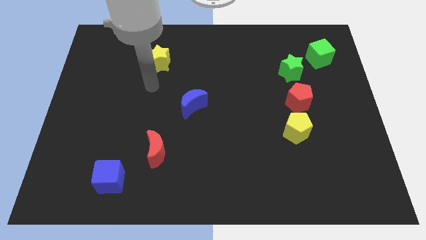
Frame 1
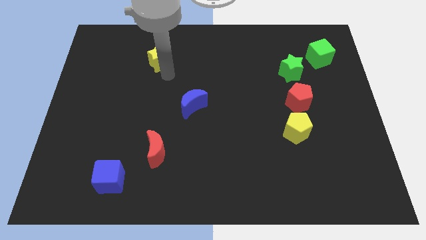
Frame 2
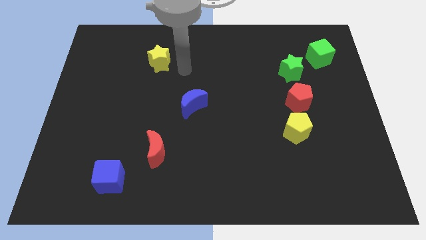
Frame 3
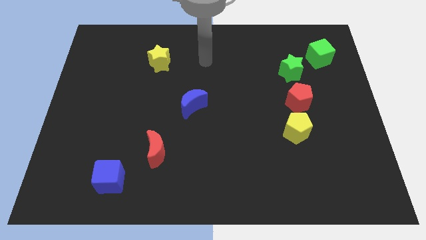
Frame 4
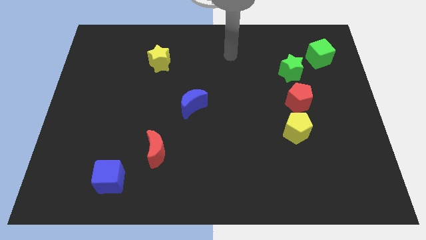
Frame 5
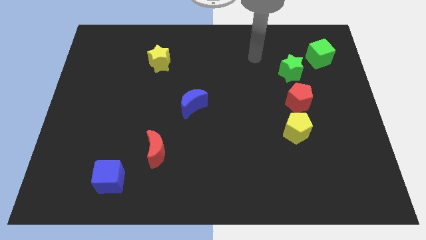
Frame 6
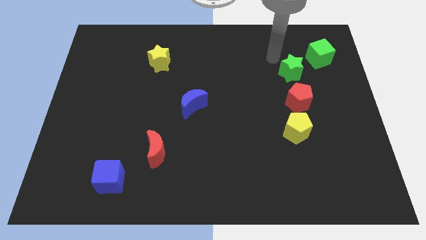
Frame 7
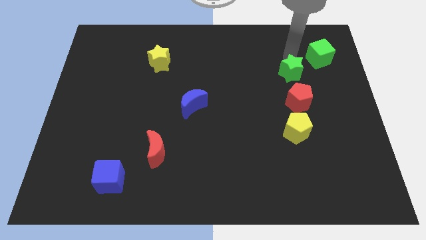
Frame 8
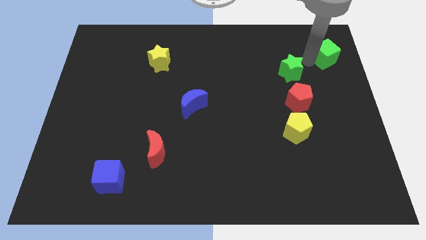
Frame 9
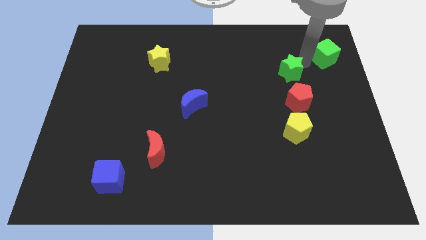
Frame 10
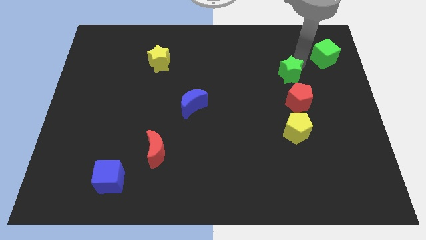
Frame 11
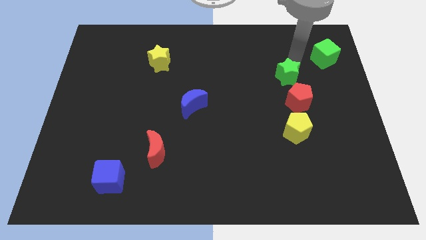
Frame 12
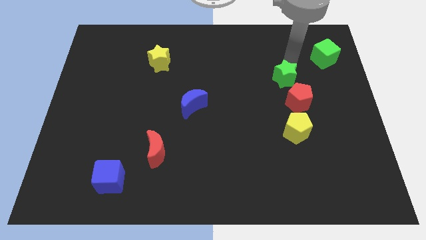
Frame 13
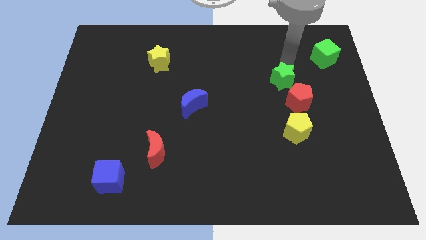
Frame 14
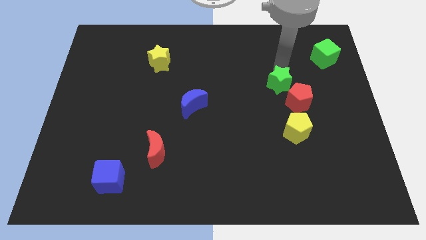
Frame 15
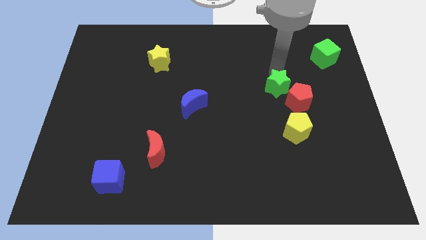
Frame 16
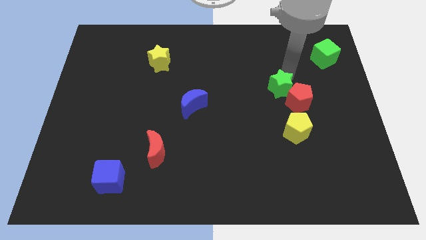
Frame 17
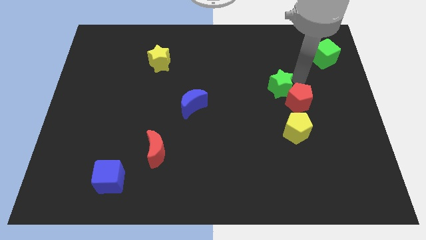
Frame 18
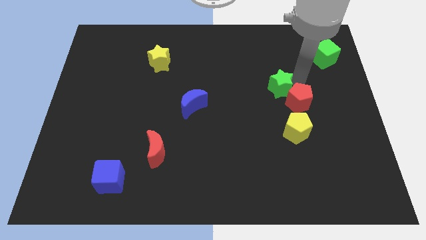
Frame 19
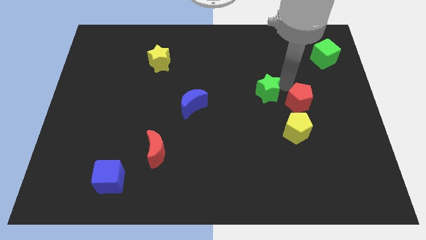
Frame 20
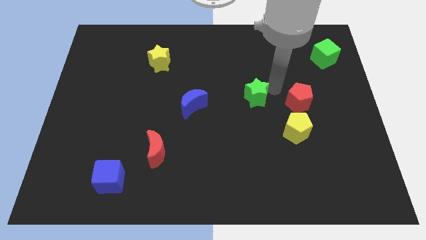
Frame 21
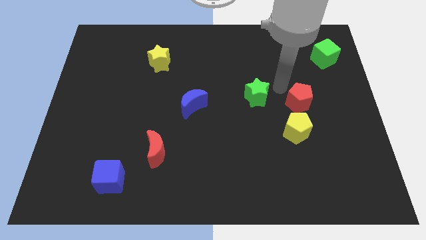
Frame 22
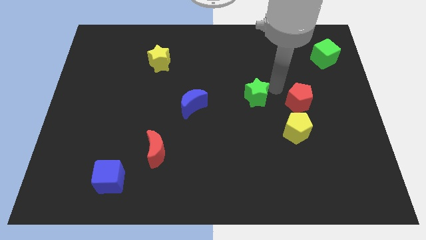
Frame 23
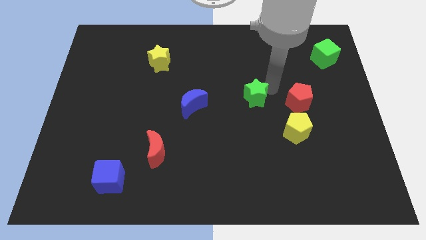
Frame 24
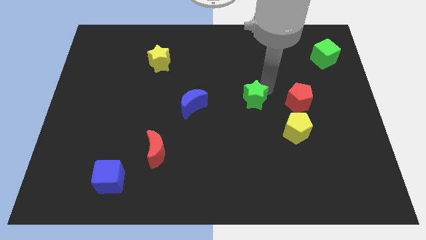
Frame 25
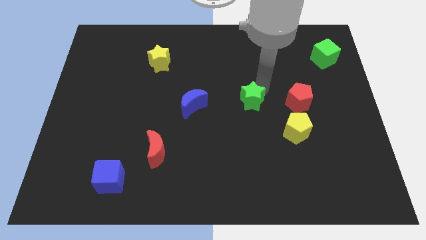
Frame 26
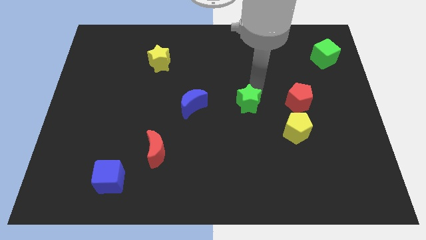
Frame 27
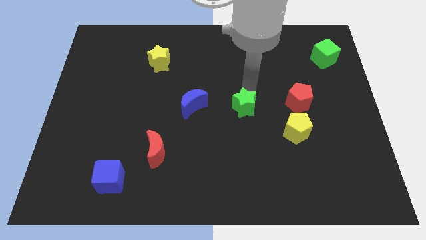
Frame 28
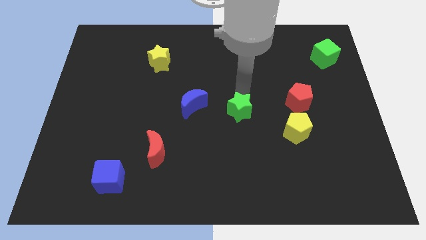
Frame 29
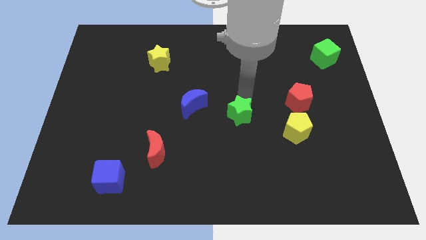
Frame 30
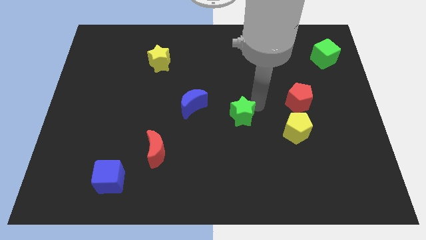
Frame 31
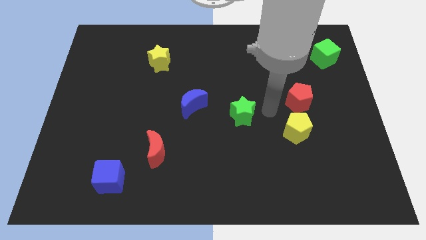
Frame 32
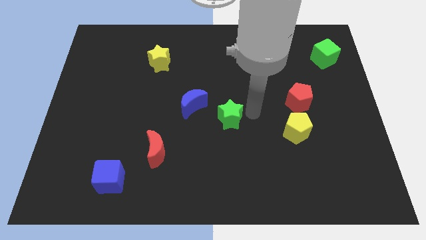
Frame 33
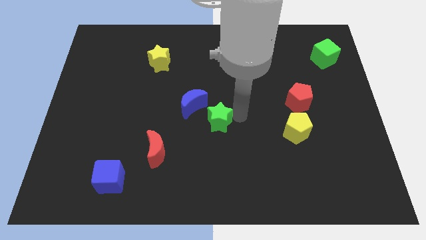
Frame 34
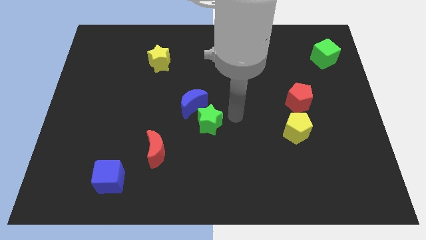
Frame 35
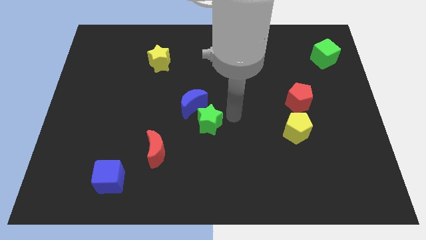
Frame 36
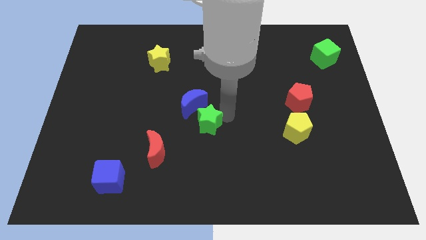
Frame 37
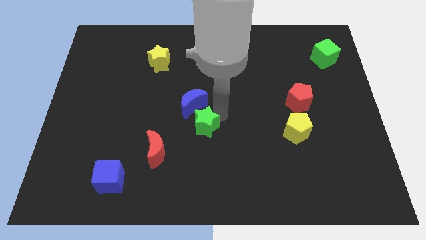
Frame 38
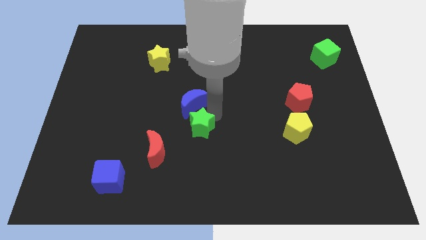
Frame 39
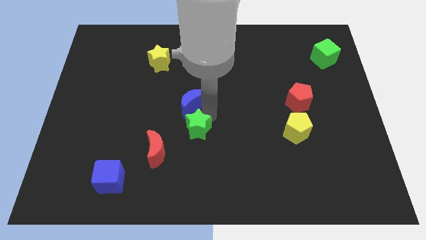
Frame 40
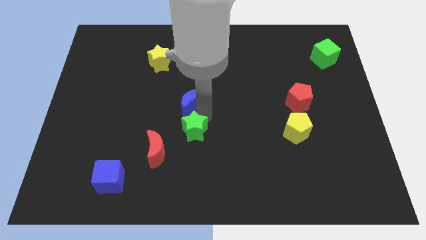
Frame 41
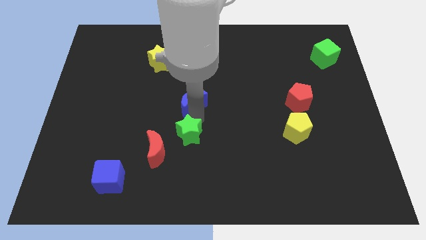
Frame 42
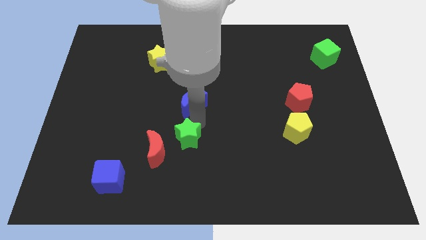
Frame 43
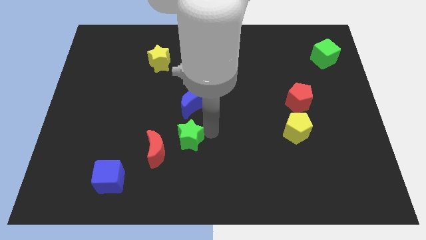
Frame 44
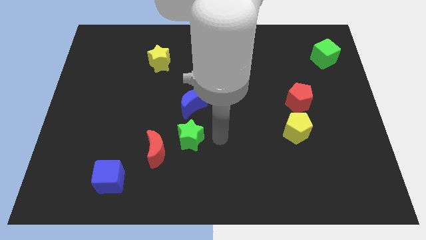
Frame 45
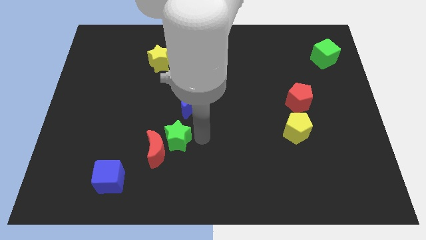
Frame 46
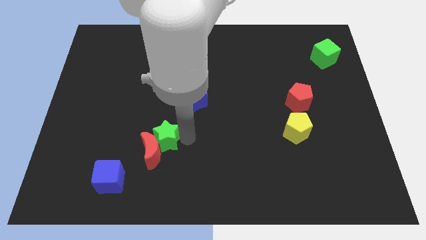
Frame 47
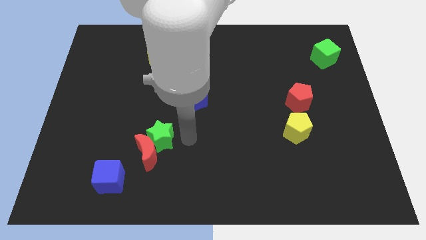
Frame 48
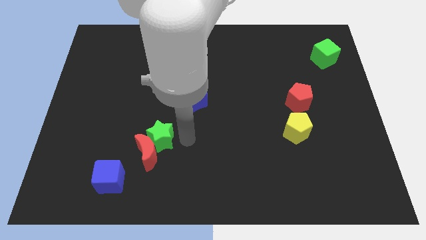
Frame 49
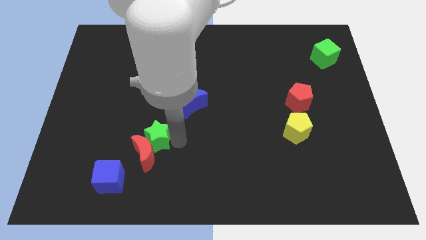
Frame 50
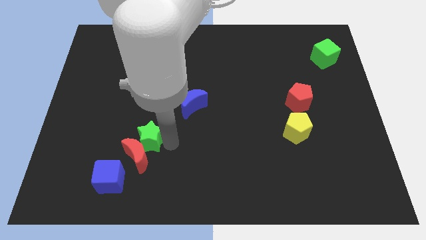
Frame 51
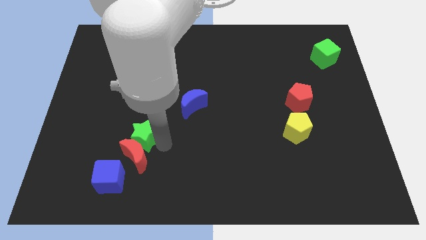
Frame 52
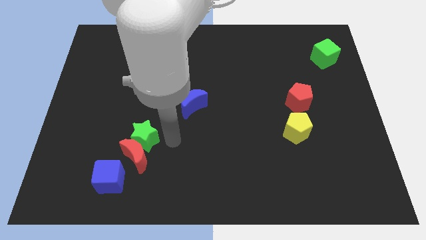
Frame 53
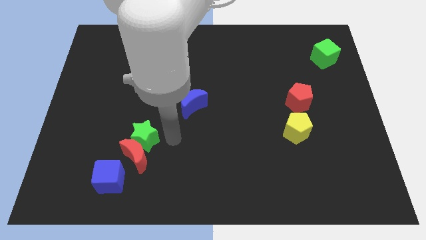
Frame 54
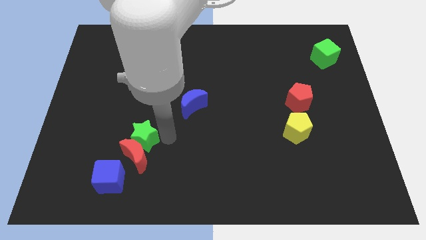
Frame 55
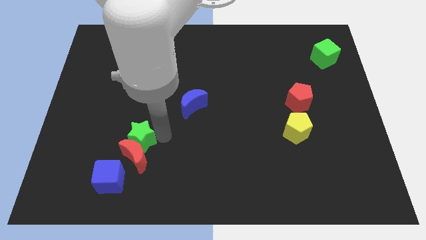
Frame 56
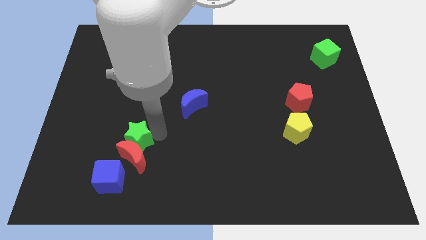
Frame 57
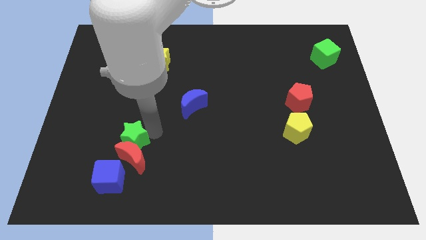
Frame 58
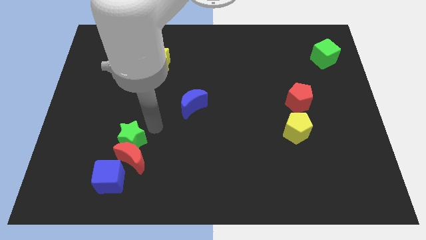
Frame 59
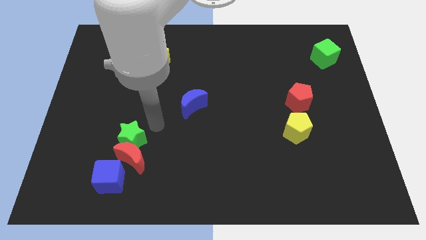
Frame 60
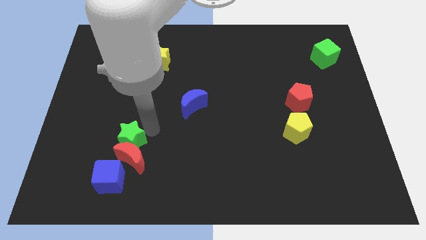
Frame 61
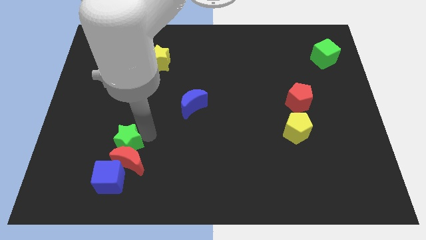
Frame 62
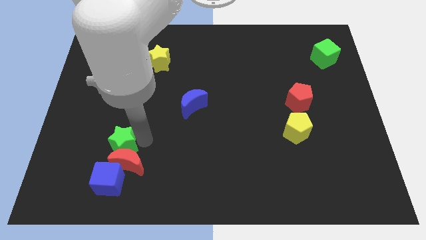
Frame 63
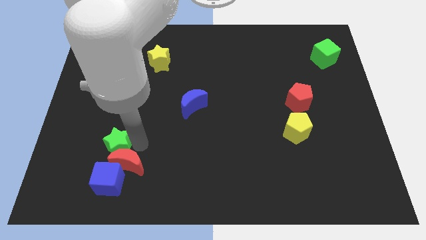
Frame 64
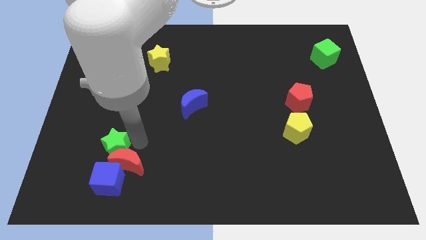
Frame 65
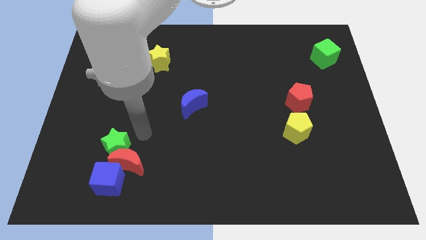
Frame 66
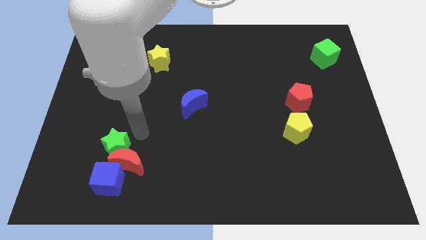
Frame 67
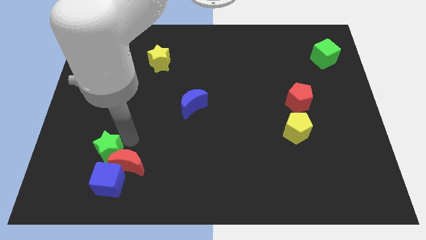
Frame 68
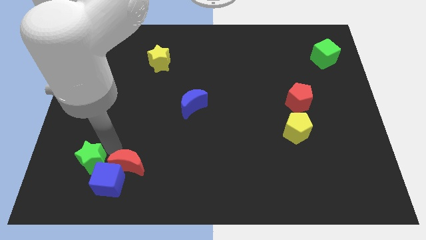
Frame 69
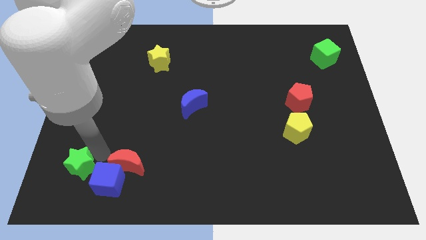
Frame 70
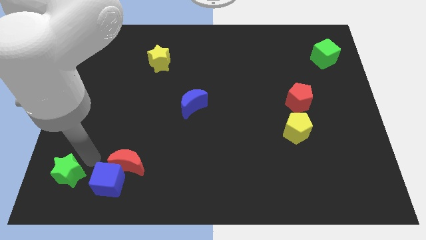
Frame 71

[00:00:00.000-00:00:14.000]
move the green star to the bottom left of the board
